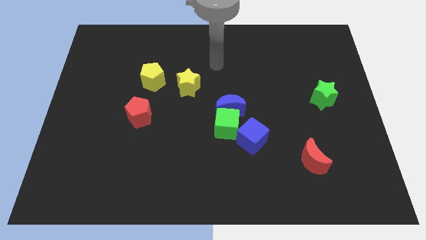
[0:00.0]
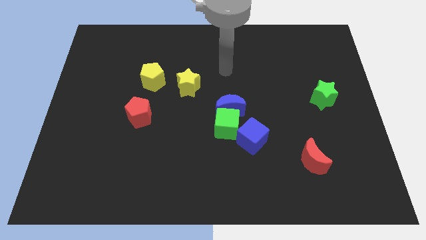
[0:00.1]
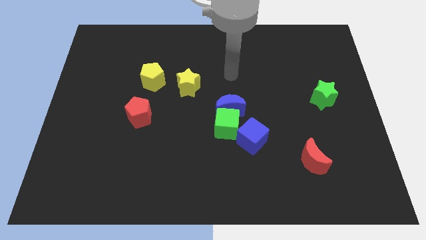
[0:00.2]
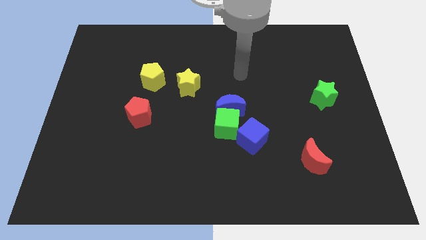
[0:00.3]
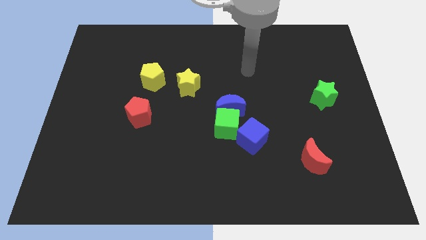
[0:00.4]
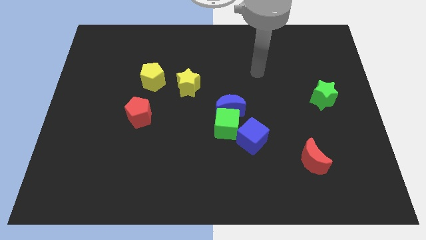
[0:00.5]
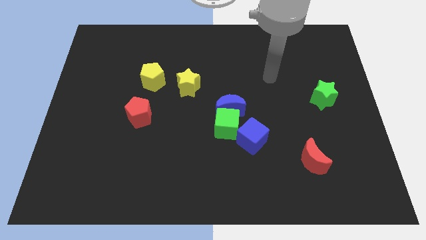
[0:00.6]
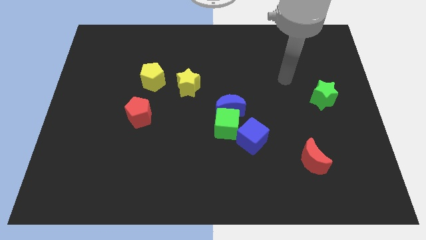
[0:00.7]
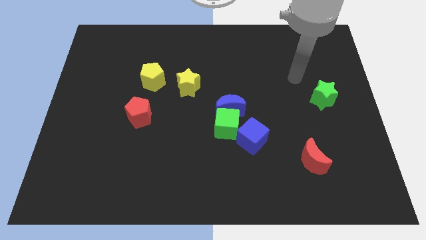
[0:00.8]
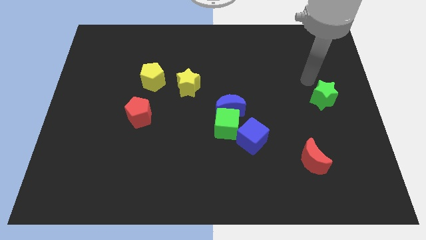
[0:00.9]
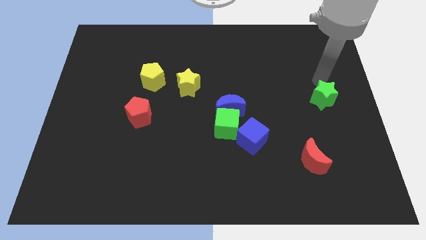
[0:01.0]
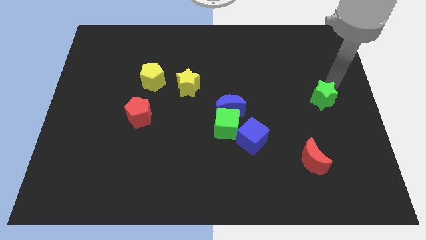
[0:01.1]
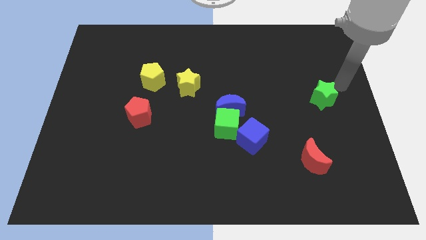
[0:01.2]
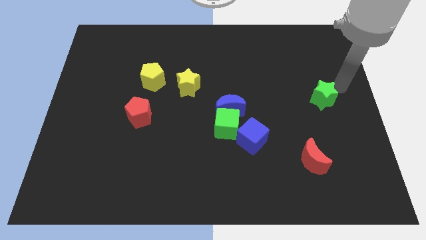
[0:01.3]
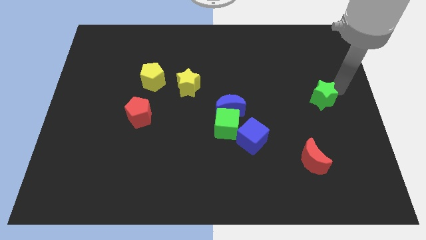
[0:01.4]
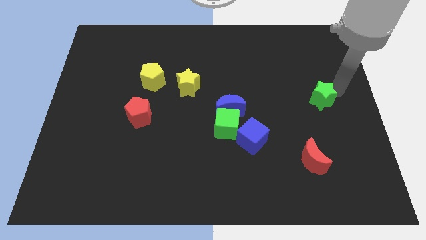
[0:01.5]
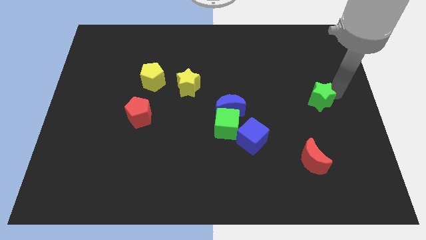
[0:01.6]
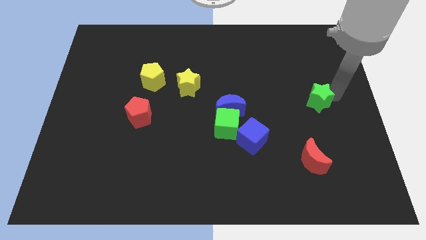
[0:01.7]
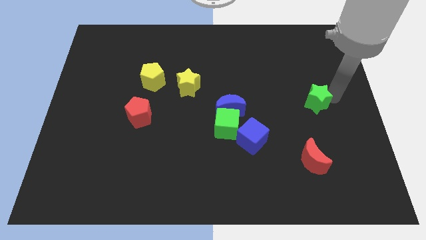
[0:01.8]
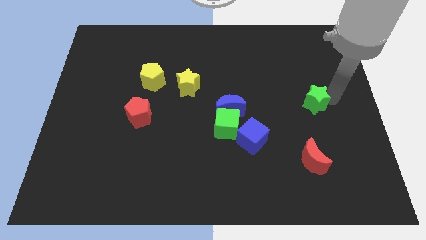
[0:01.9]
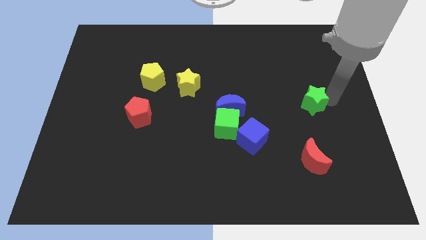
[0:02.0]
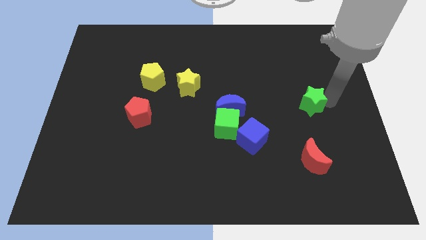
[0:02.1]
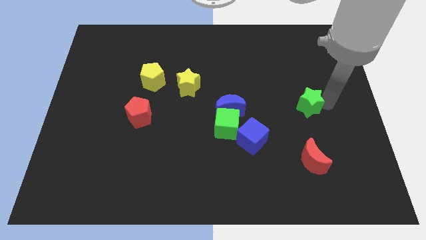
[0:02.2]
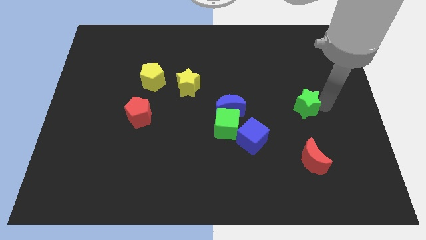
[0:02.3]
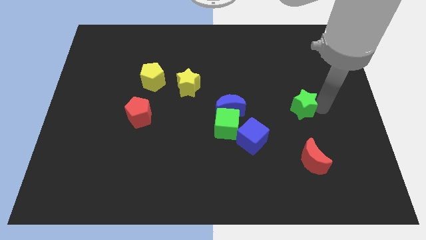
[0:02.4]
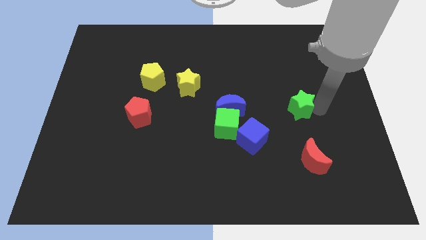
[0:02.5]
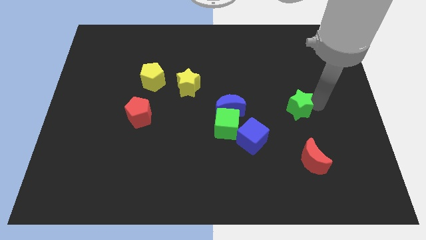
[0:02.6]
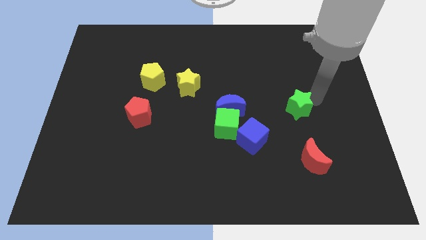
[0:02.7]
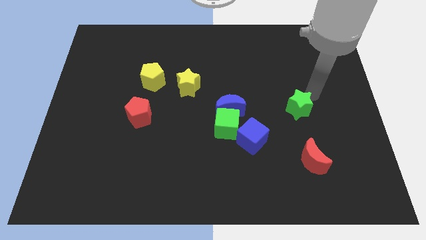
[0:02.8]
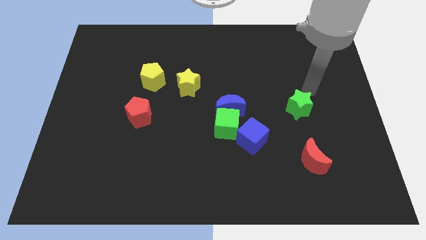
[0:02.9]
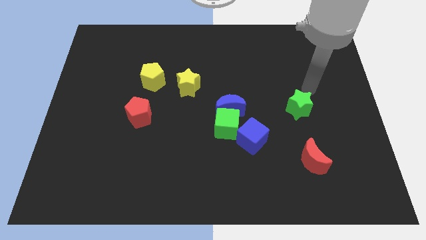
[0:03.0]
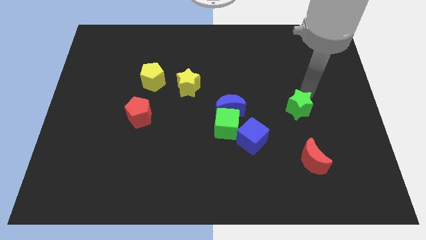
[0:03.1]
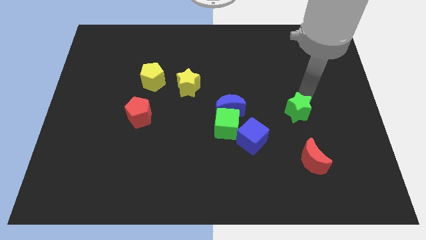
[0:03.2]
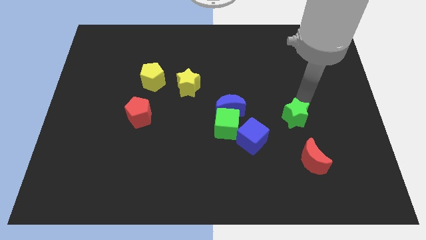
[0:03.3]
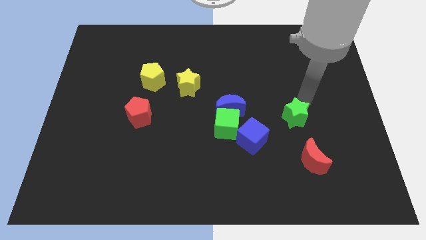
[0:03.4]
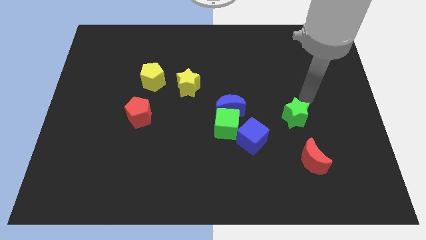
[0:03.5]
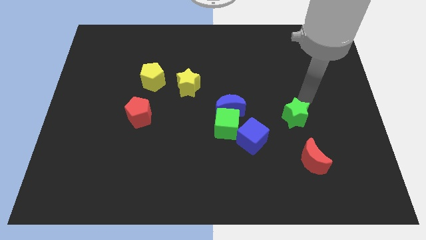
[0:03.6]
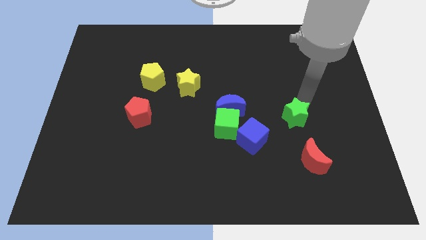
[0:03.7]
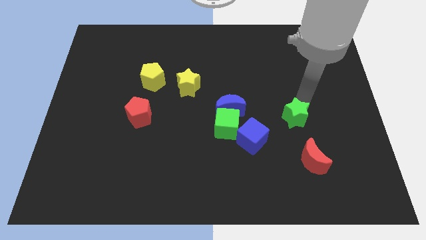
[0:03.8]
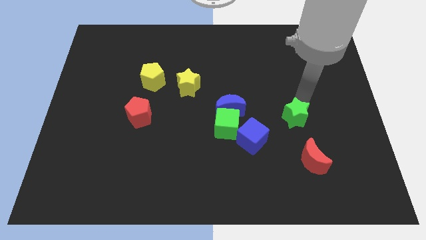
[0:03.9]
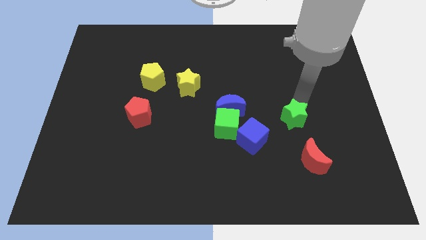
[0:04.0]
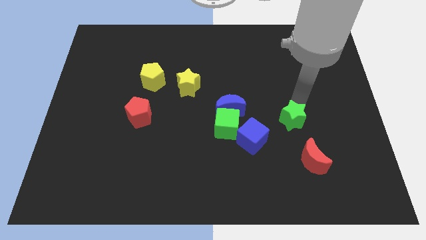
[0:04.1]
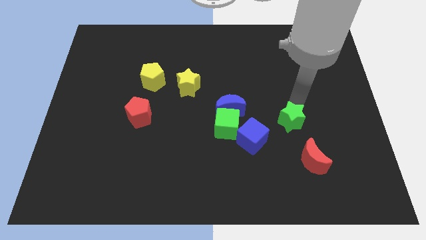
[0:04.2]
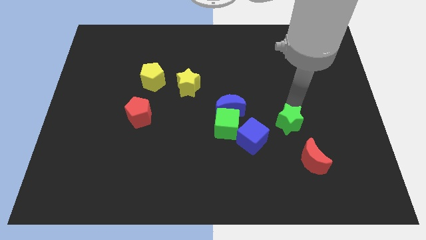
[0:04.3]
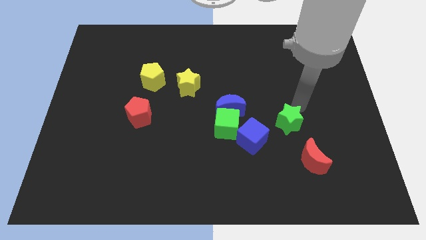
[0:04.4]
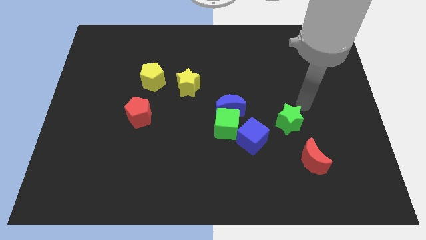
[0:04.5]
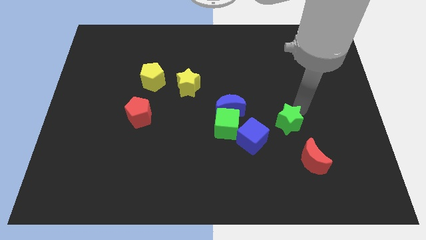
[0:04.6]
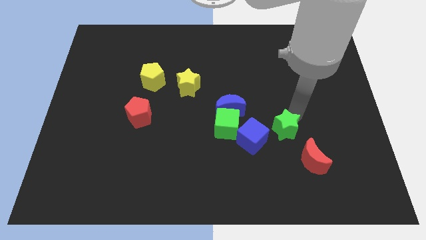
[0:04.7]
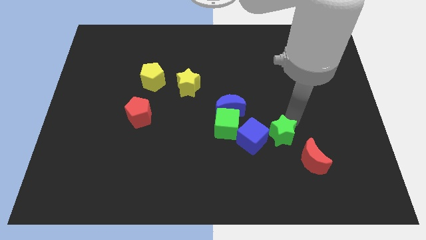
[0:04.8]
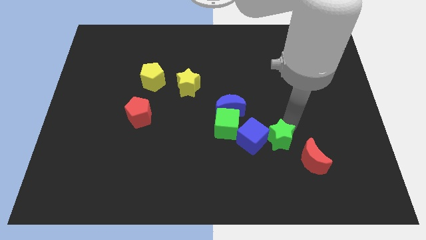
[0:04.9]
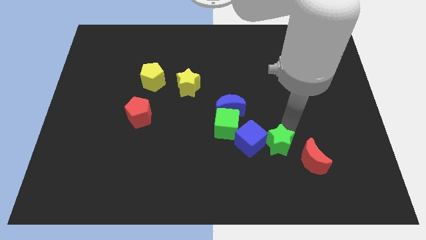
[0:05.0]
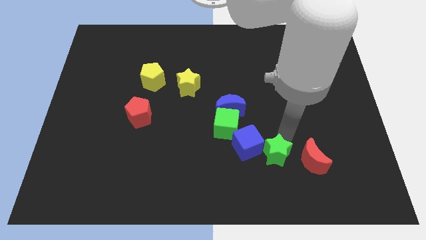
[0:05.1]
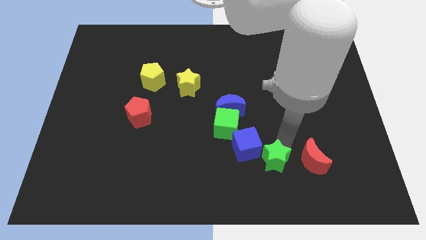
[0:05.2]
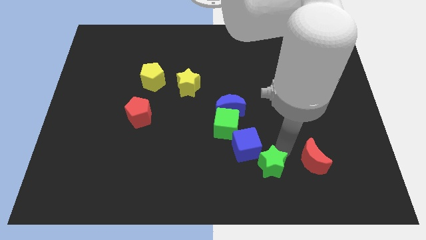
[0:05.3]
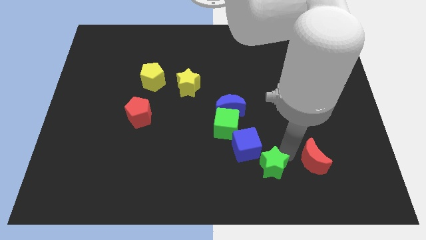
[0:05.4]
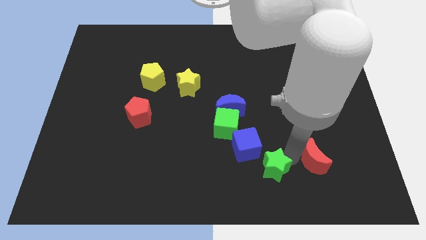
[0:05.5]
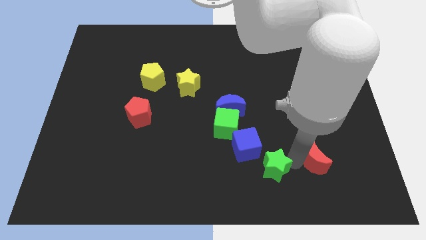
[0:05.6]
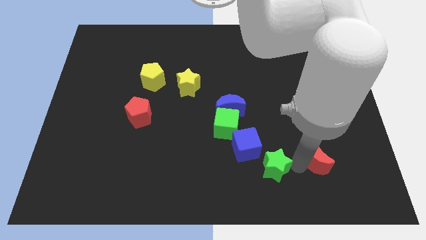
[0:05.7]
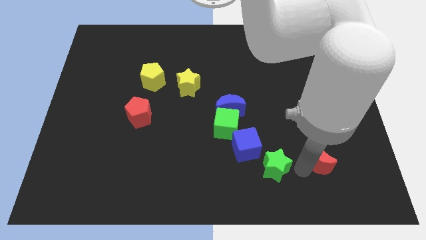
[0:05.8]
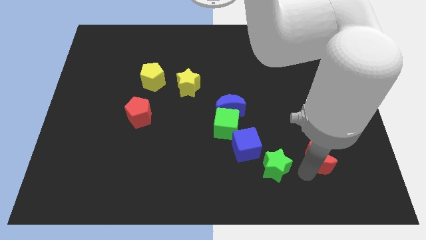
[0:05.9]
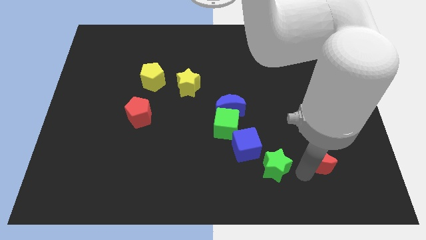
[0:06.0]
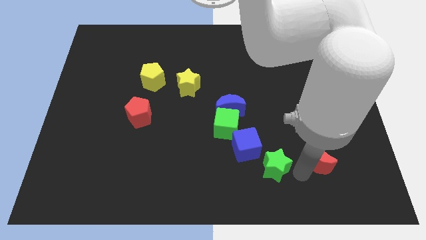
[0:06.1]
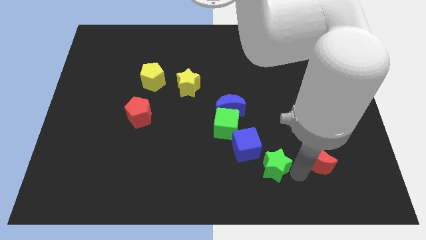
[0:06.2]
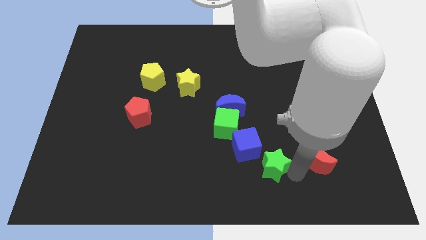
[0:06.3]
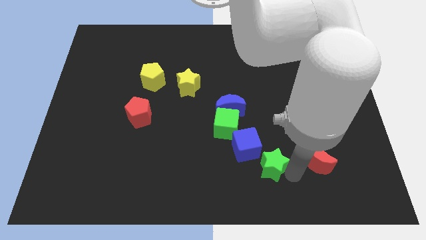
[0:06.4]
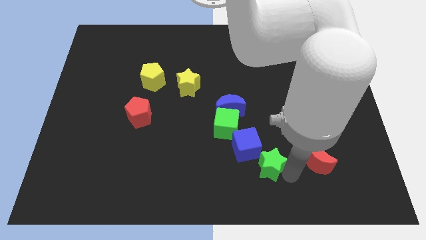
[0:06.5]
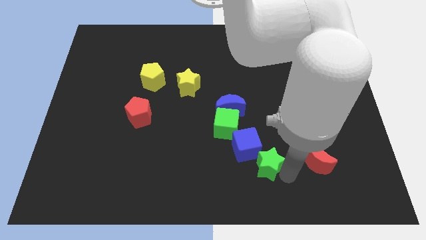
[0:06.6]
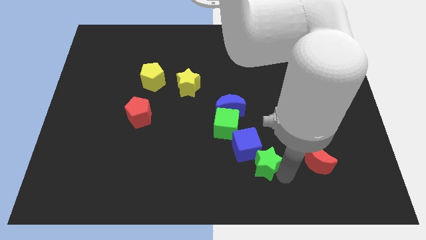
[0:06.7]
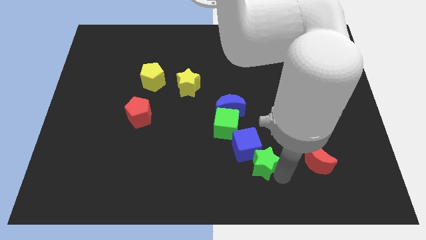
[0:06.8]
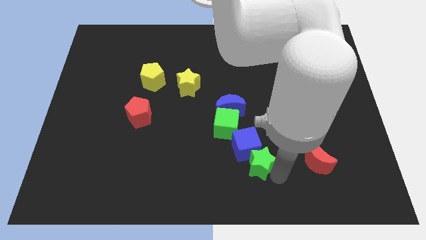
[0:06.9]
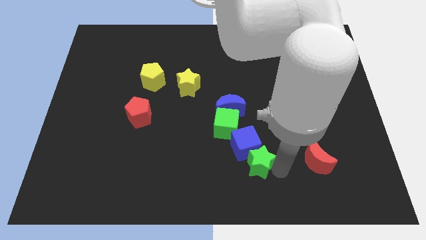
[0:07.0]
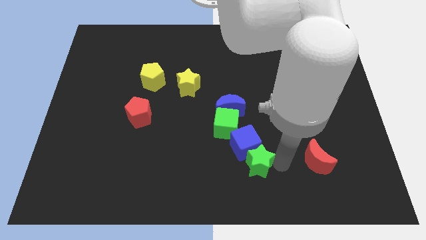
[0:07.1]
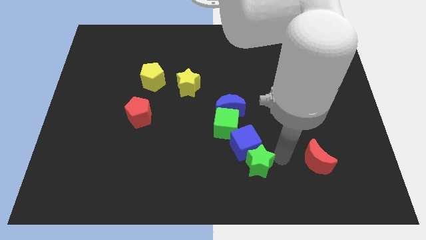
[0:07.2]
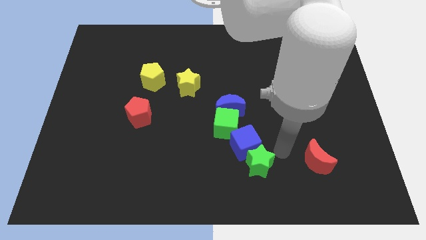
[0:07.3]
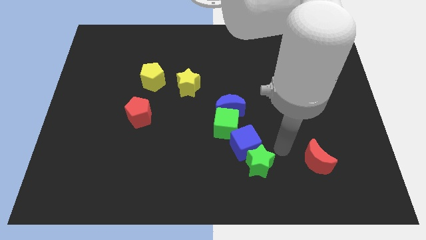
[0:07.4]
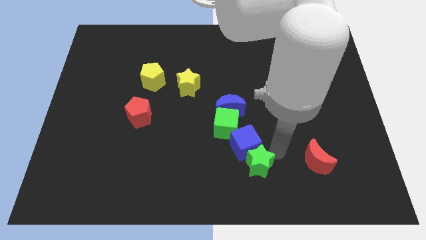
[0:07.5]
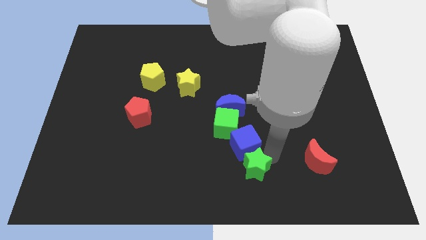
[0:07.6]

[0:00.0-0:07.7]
move the green star to the bottom

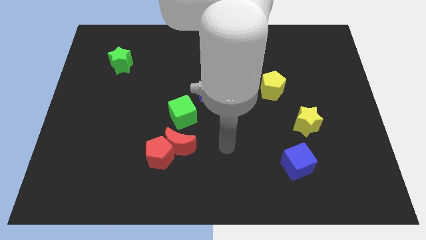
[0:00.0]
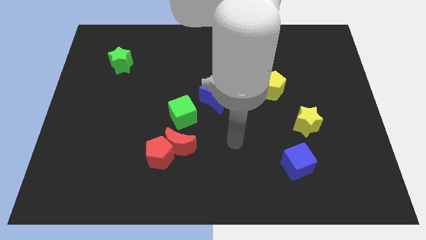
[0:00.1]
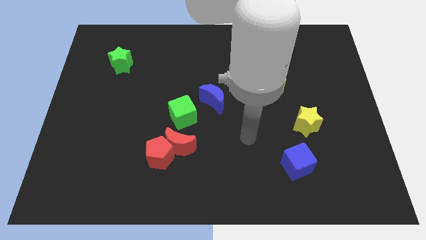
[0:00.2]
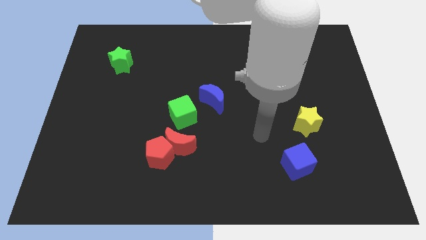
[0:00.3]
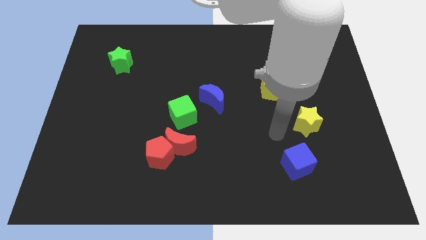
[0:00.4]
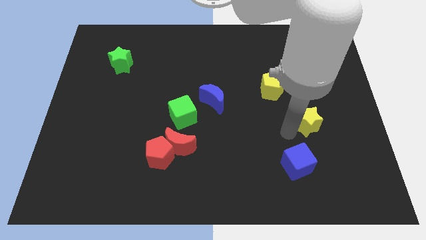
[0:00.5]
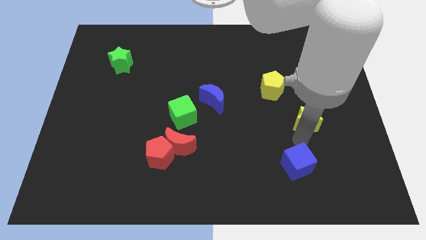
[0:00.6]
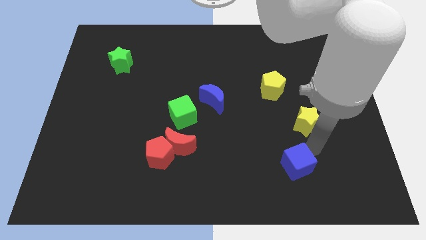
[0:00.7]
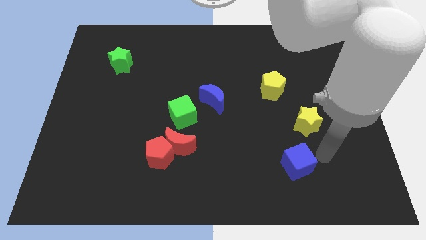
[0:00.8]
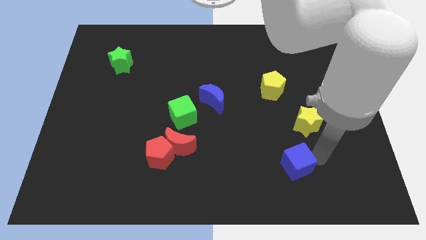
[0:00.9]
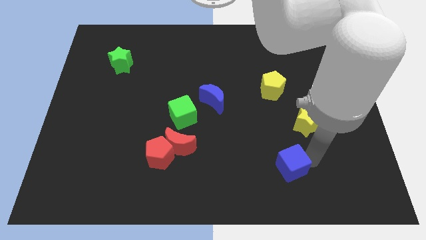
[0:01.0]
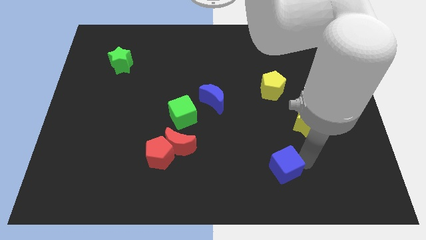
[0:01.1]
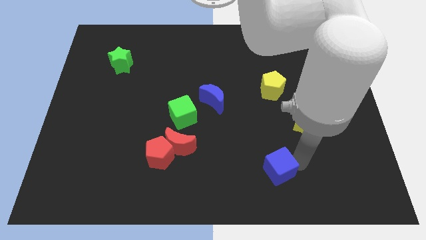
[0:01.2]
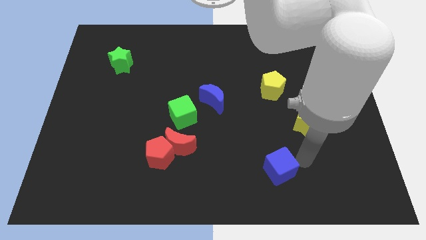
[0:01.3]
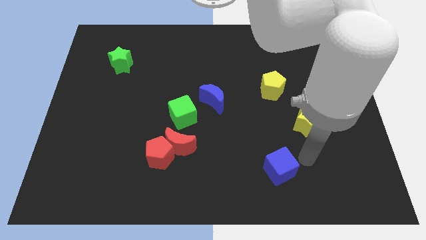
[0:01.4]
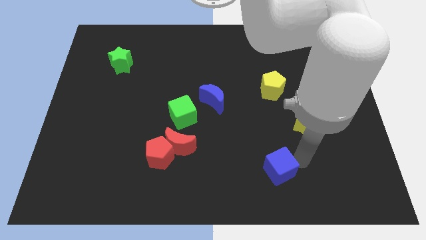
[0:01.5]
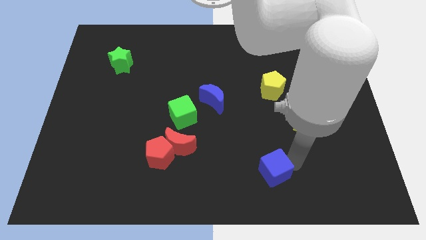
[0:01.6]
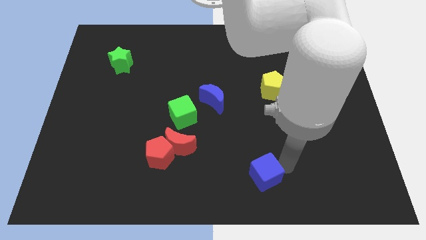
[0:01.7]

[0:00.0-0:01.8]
push the blue cube to the bottom
